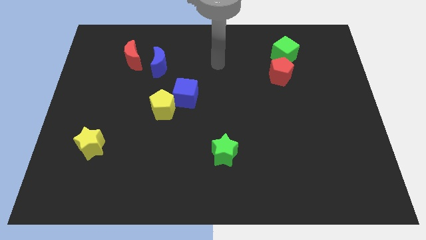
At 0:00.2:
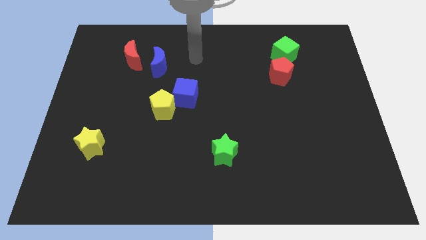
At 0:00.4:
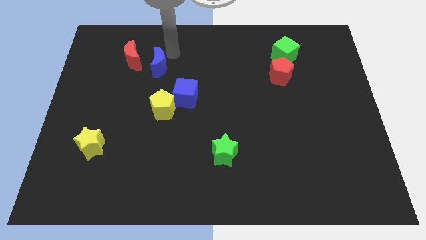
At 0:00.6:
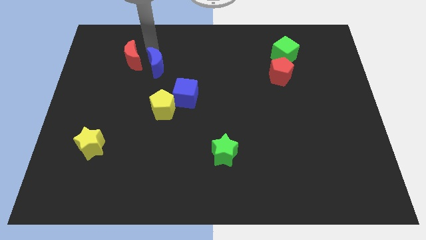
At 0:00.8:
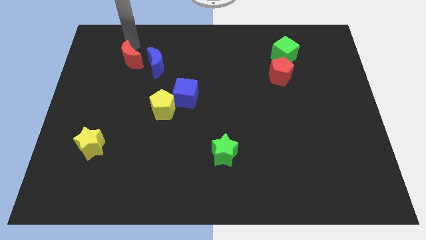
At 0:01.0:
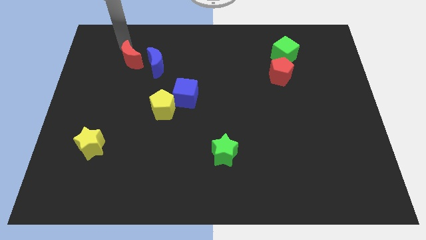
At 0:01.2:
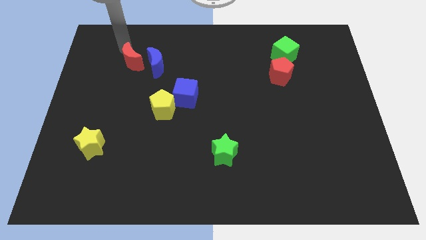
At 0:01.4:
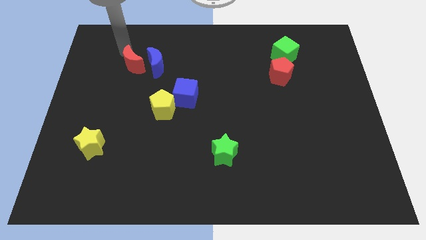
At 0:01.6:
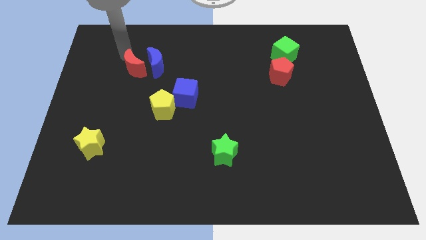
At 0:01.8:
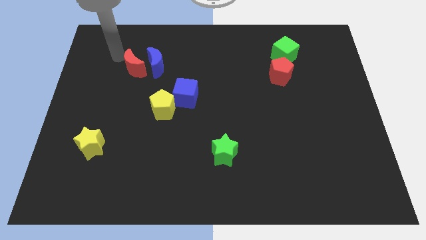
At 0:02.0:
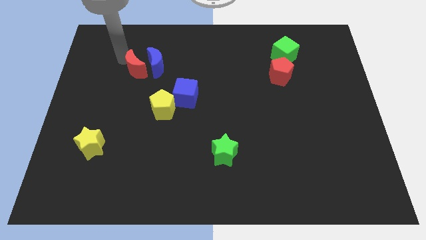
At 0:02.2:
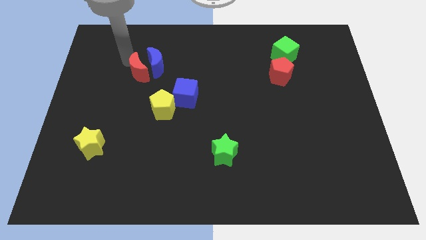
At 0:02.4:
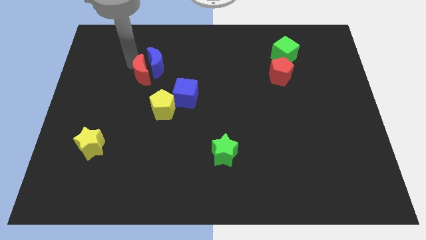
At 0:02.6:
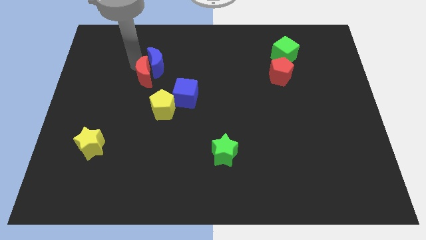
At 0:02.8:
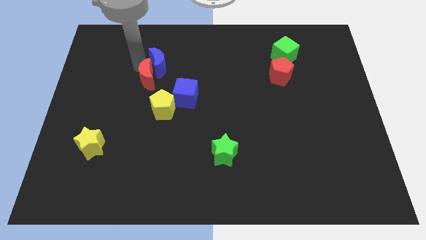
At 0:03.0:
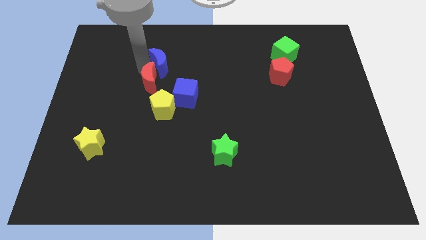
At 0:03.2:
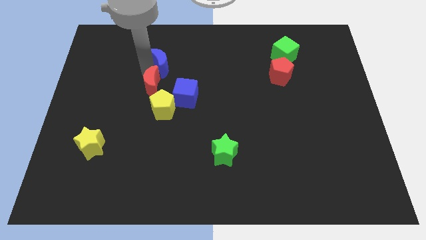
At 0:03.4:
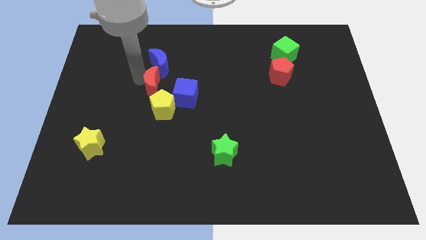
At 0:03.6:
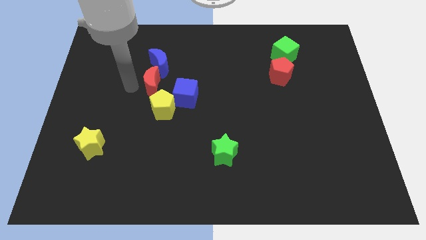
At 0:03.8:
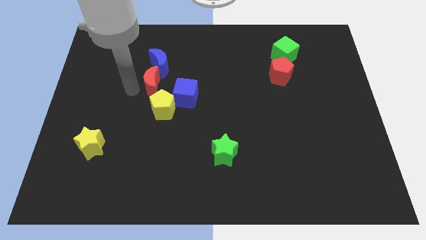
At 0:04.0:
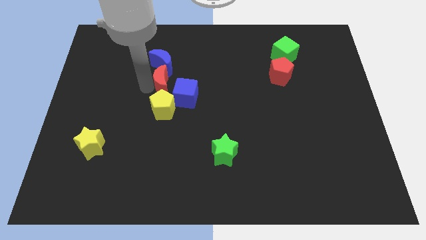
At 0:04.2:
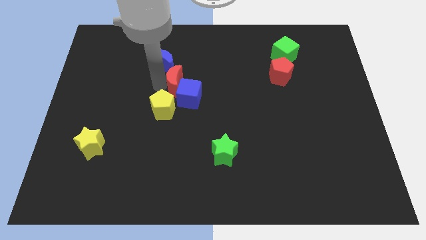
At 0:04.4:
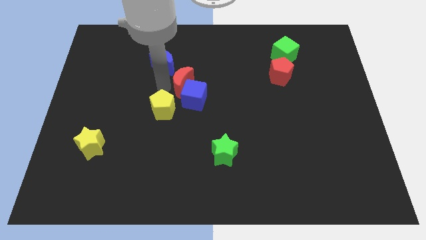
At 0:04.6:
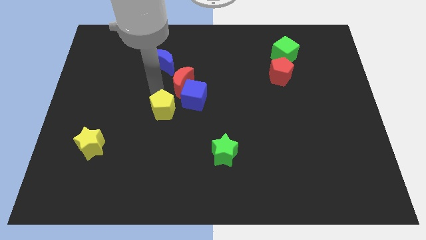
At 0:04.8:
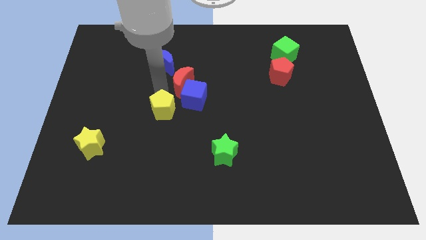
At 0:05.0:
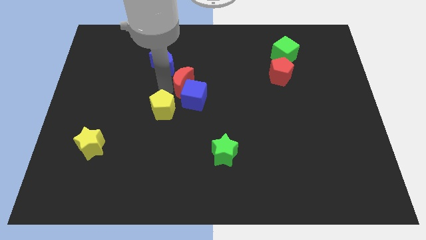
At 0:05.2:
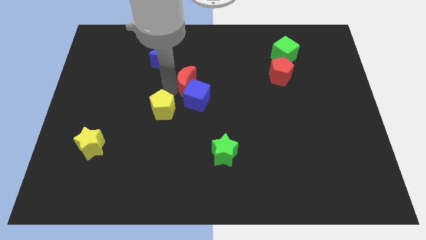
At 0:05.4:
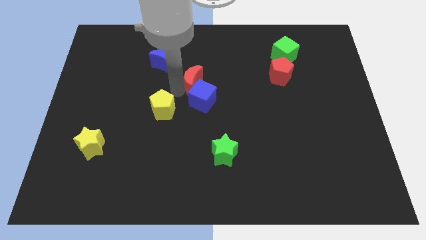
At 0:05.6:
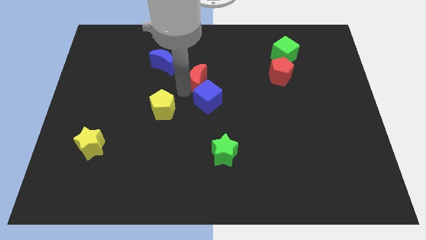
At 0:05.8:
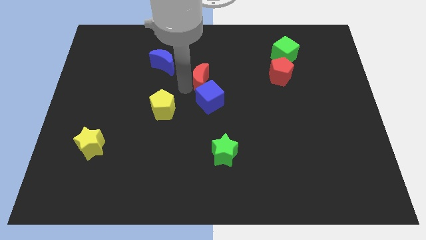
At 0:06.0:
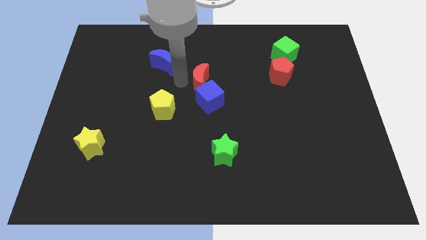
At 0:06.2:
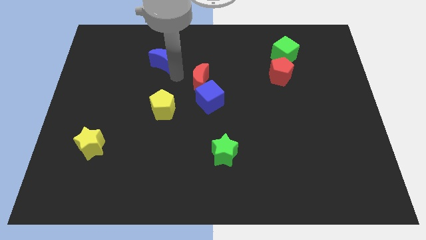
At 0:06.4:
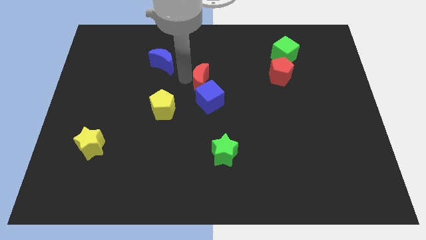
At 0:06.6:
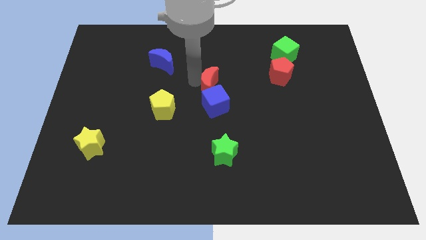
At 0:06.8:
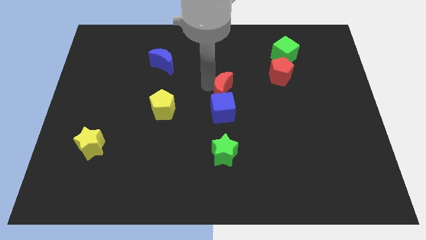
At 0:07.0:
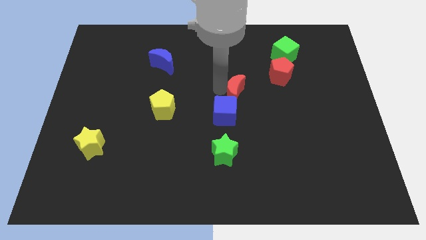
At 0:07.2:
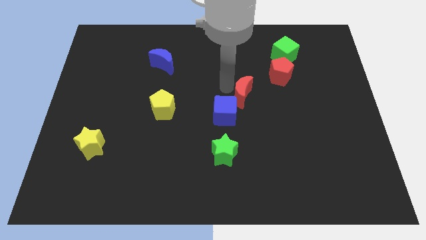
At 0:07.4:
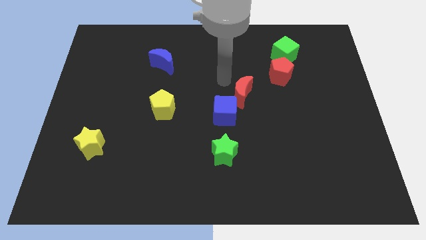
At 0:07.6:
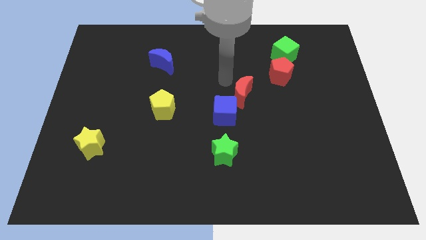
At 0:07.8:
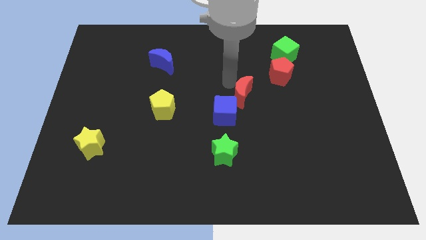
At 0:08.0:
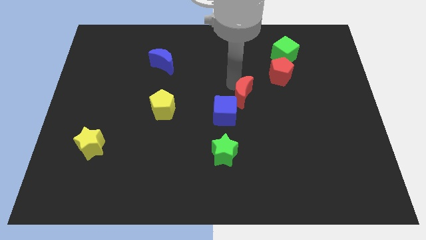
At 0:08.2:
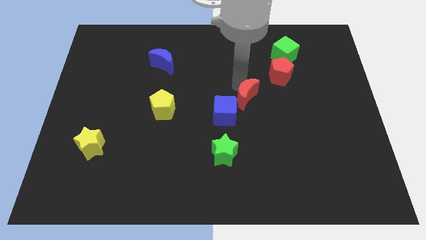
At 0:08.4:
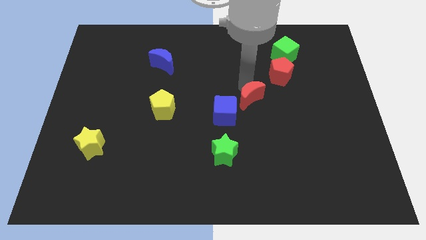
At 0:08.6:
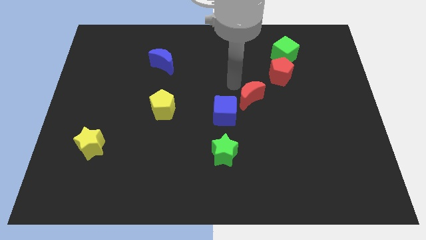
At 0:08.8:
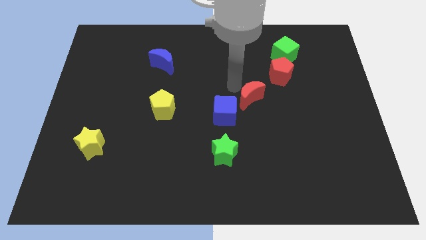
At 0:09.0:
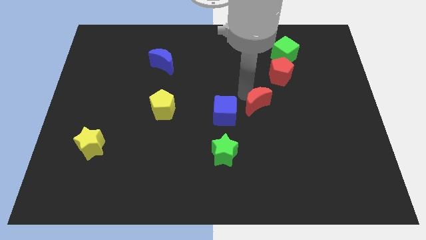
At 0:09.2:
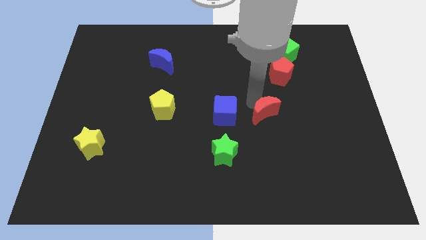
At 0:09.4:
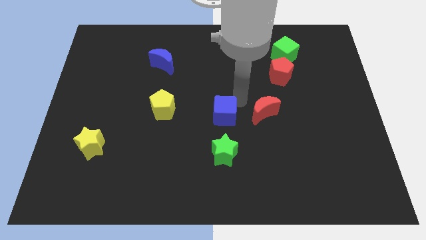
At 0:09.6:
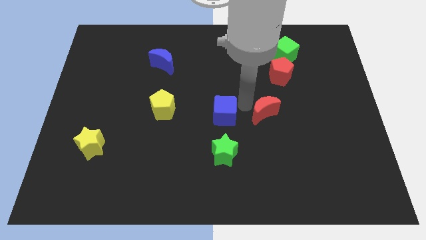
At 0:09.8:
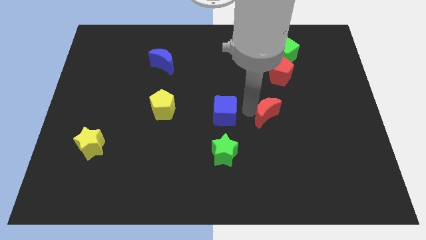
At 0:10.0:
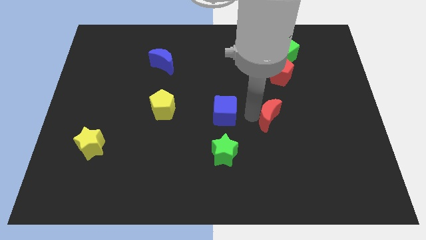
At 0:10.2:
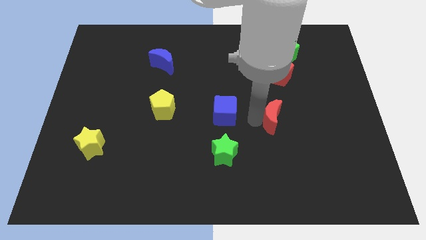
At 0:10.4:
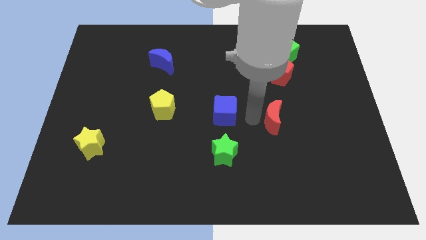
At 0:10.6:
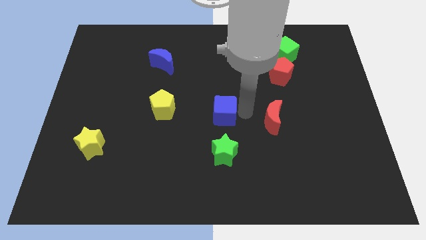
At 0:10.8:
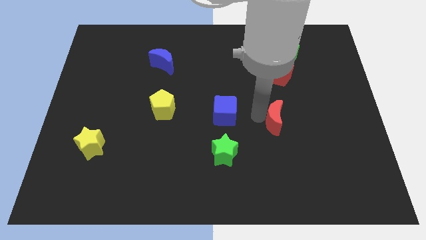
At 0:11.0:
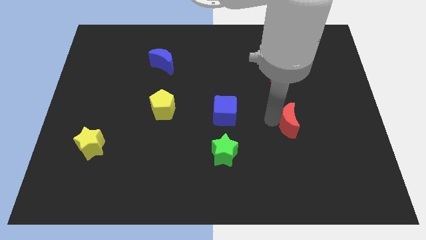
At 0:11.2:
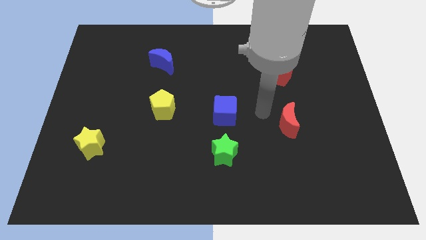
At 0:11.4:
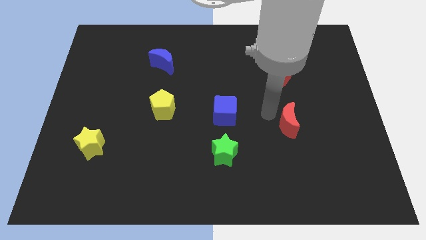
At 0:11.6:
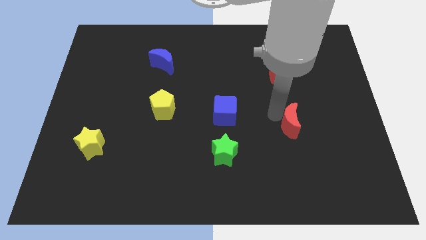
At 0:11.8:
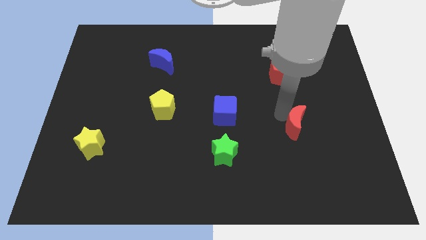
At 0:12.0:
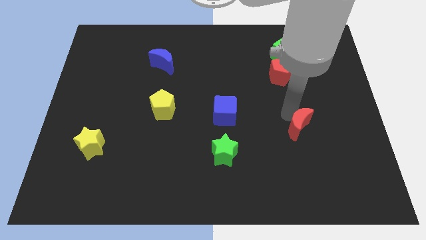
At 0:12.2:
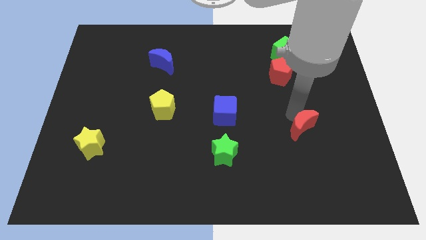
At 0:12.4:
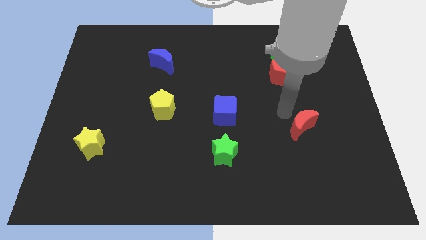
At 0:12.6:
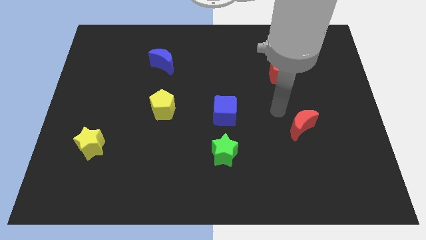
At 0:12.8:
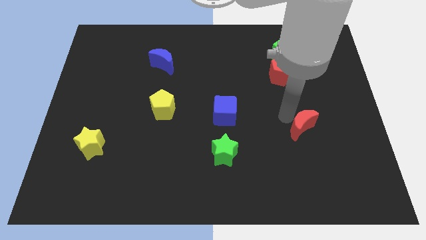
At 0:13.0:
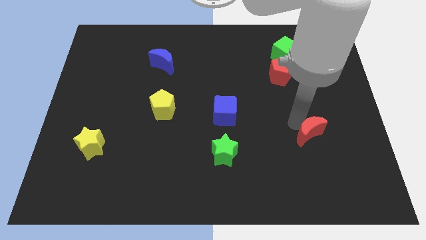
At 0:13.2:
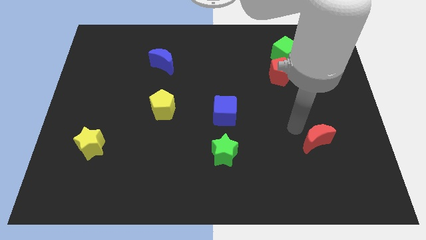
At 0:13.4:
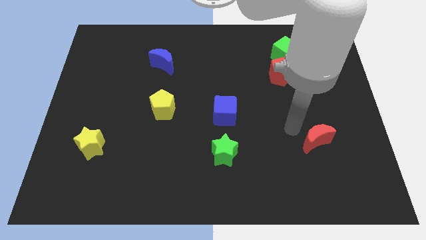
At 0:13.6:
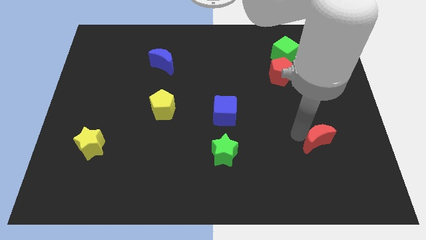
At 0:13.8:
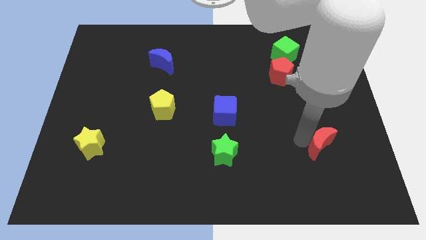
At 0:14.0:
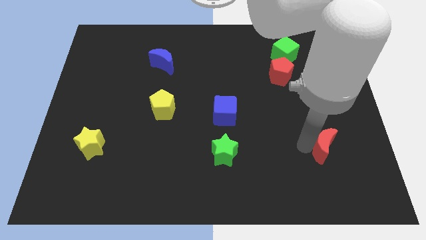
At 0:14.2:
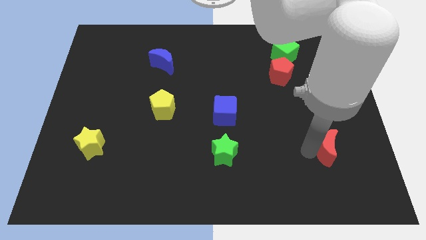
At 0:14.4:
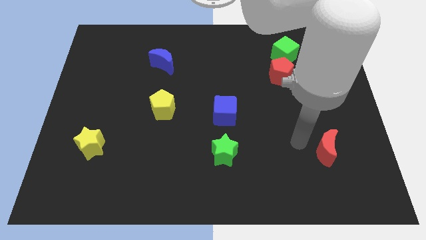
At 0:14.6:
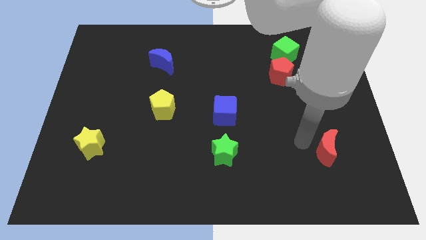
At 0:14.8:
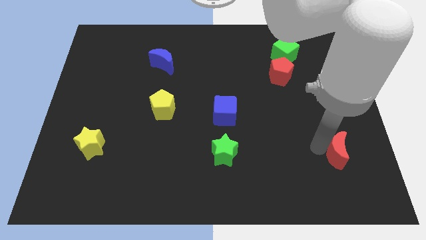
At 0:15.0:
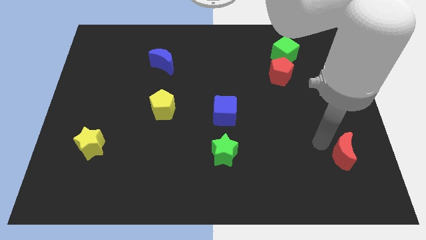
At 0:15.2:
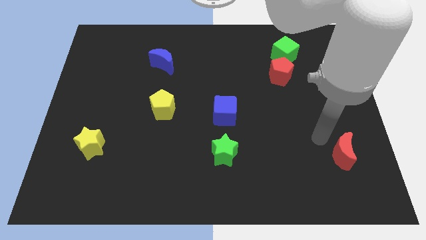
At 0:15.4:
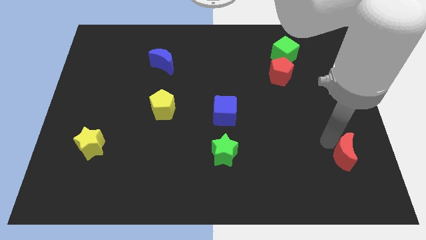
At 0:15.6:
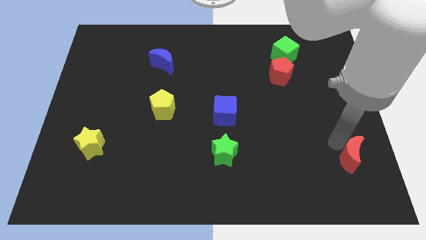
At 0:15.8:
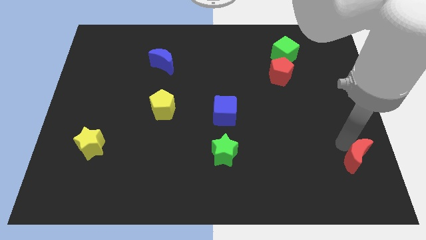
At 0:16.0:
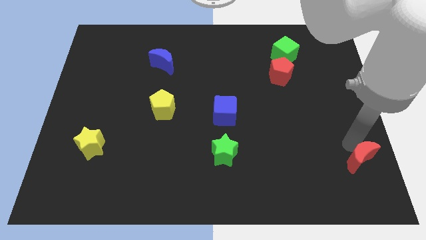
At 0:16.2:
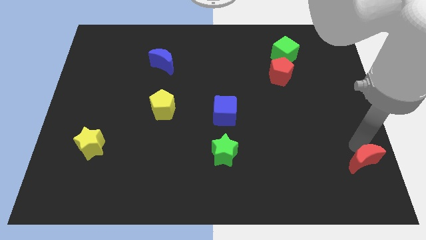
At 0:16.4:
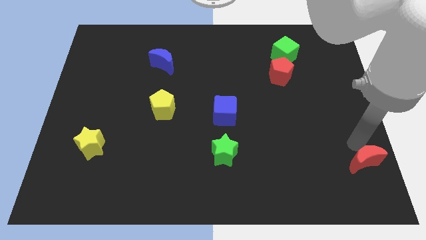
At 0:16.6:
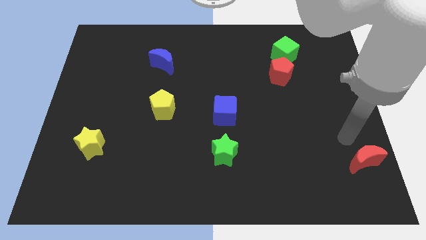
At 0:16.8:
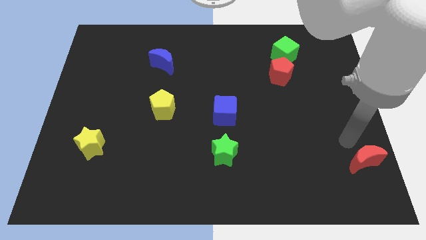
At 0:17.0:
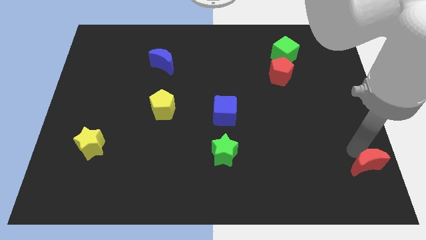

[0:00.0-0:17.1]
move the red moon to the bottom right of the board
